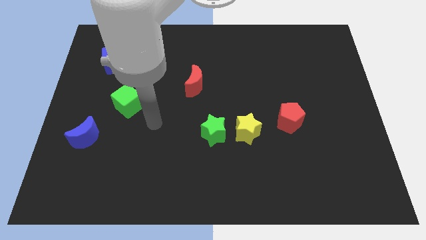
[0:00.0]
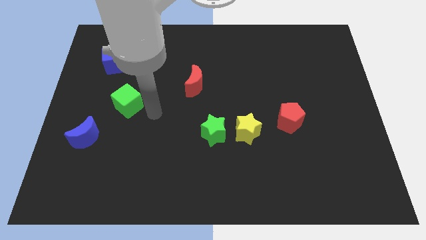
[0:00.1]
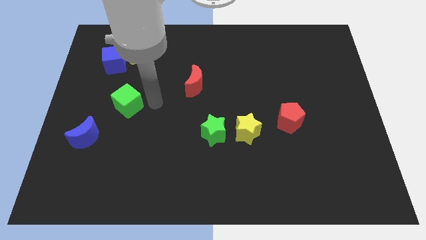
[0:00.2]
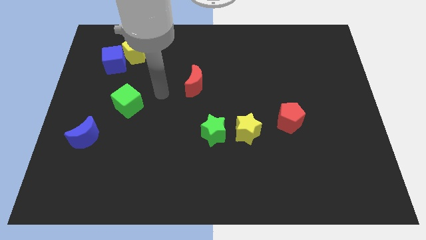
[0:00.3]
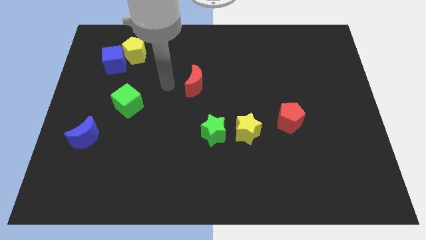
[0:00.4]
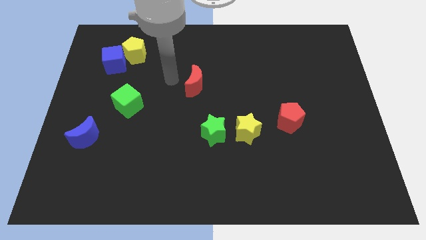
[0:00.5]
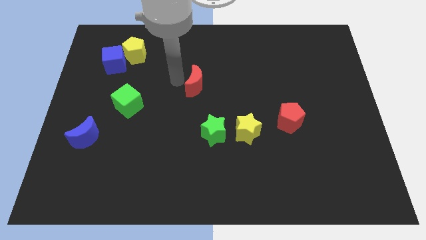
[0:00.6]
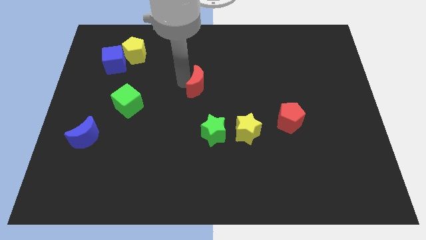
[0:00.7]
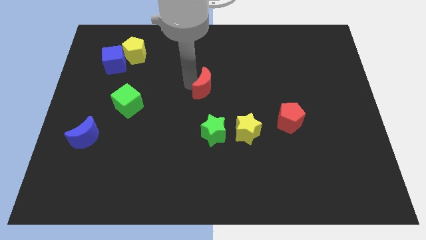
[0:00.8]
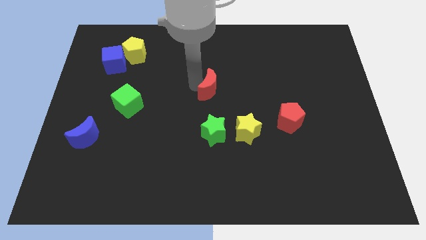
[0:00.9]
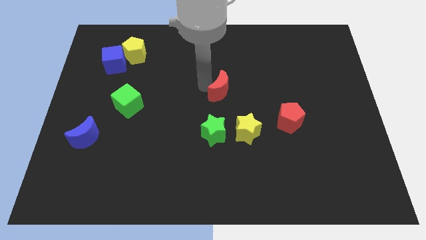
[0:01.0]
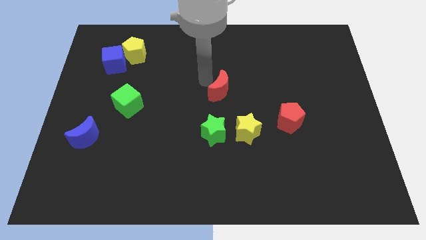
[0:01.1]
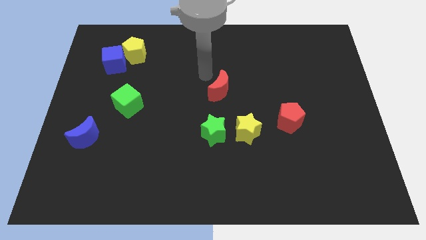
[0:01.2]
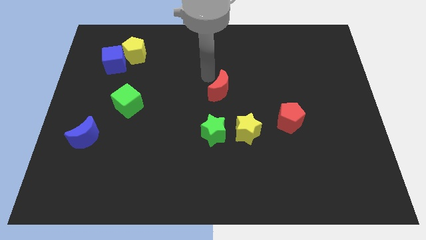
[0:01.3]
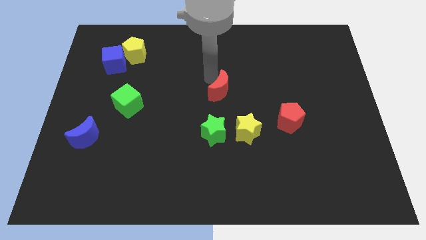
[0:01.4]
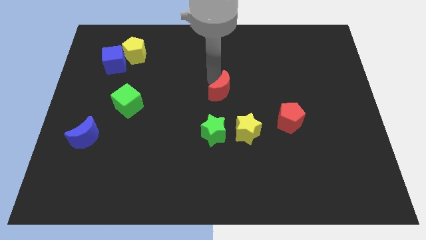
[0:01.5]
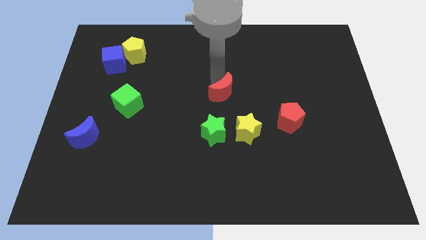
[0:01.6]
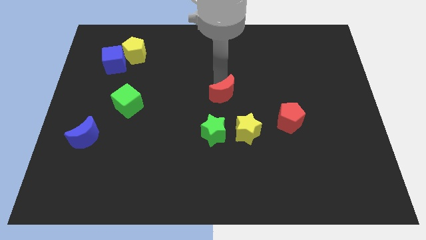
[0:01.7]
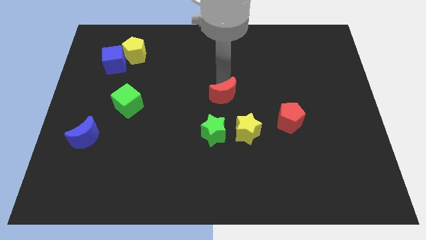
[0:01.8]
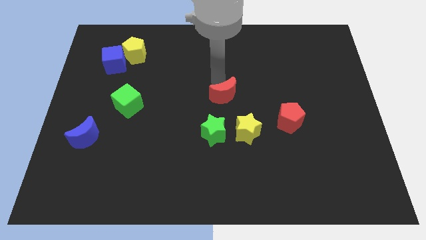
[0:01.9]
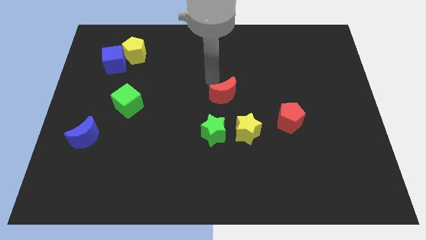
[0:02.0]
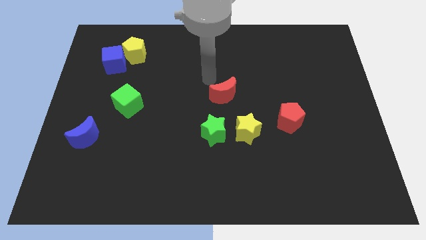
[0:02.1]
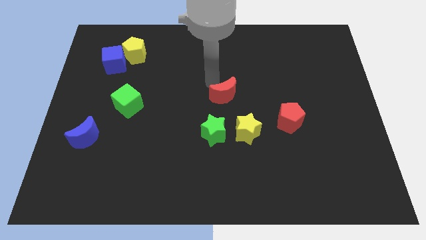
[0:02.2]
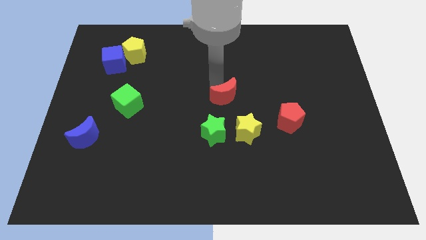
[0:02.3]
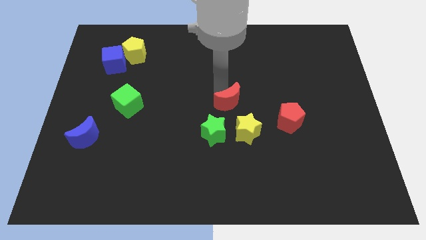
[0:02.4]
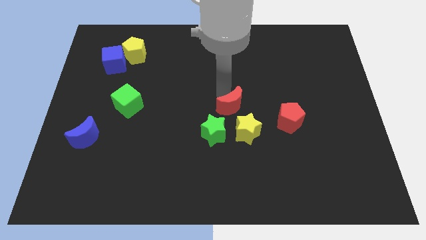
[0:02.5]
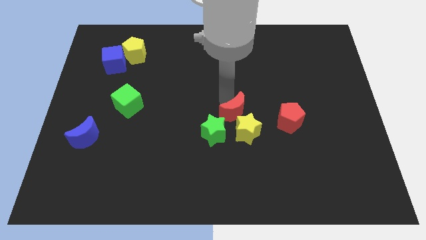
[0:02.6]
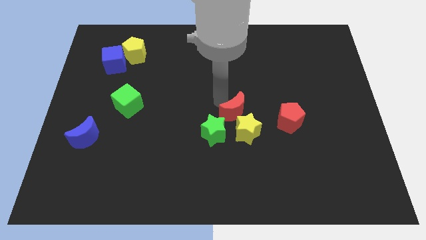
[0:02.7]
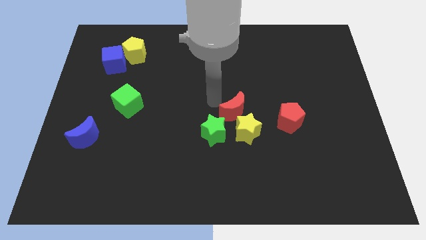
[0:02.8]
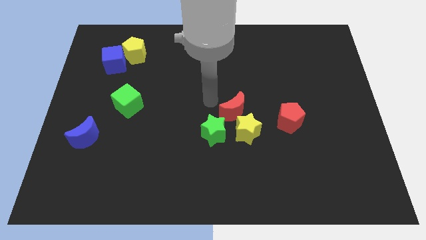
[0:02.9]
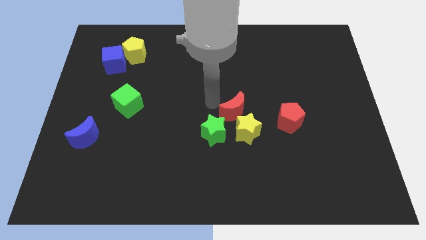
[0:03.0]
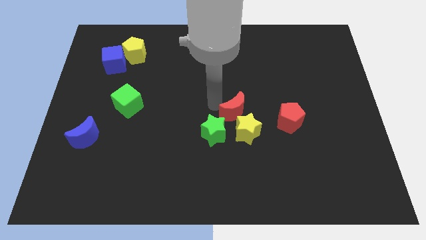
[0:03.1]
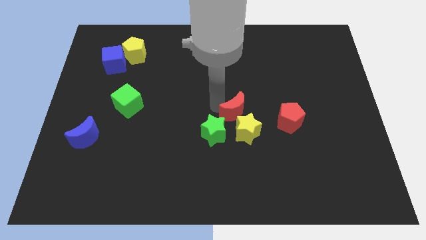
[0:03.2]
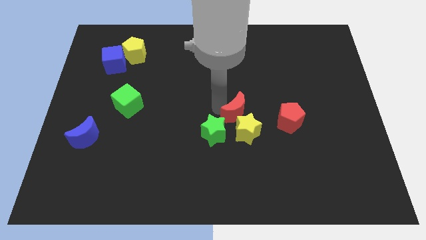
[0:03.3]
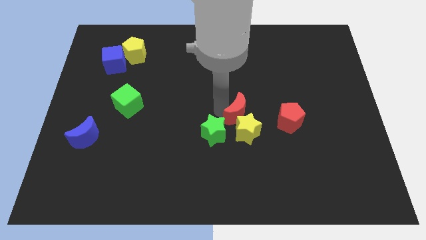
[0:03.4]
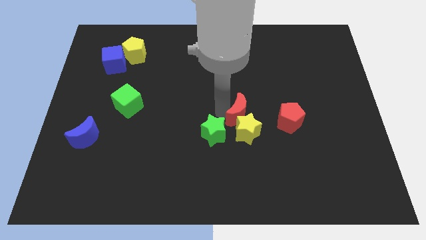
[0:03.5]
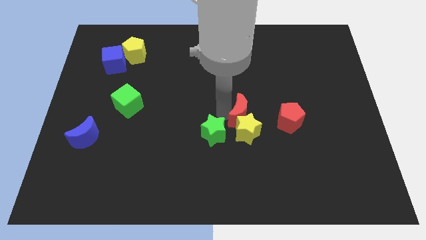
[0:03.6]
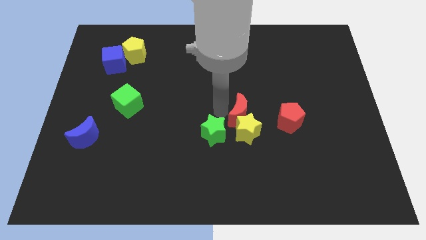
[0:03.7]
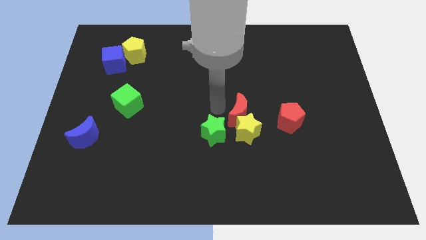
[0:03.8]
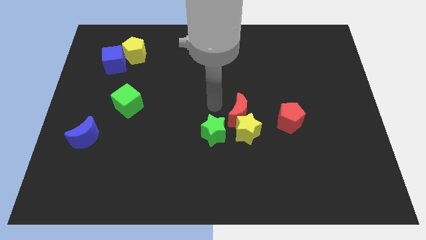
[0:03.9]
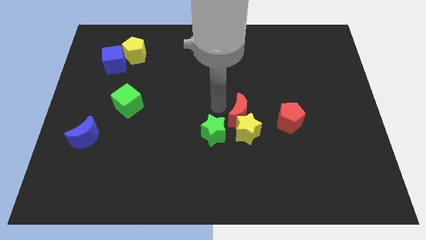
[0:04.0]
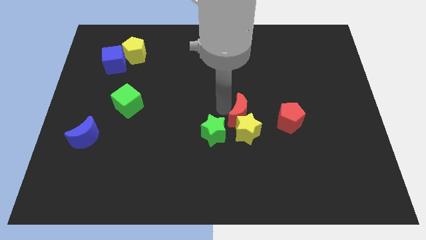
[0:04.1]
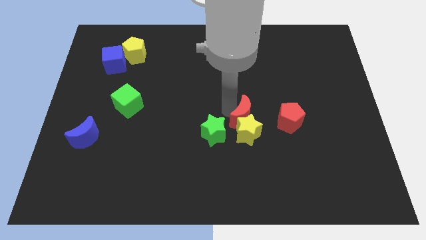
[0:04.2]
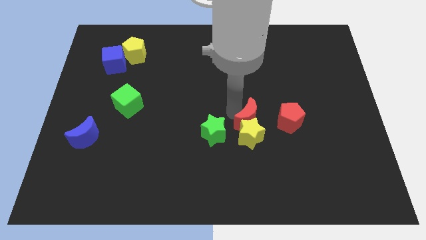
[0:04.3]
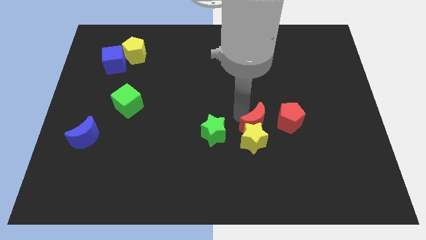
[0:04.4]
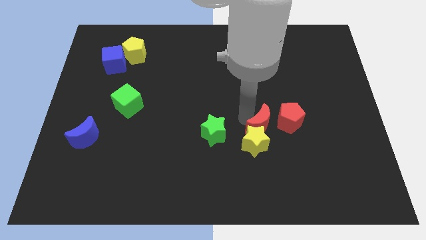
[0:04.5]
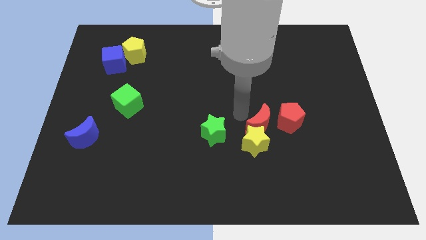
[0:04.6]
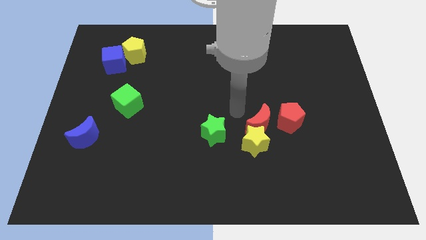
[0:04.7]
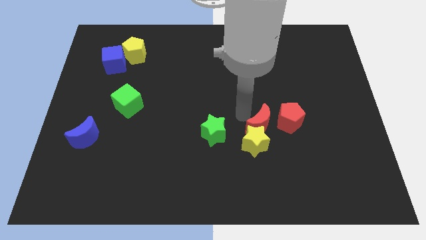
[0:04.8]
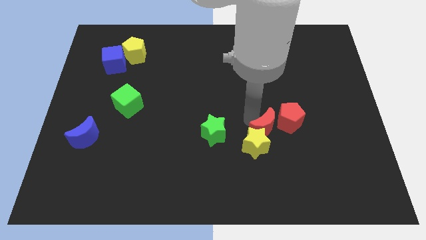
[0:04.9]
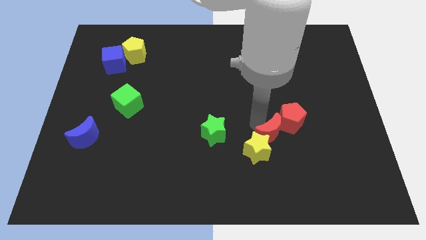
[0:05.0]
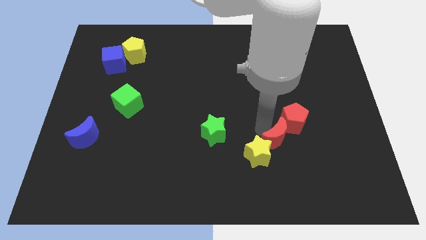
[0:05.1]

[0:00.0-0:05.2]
move the red moon below the red pentagon

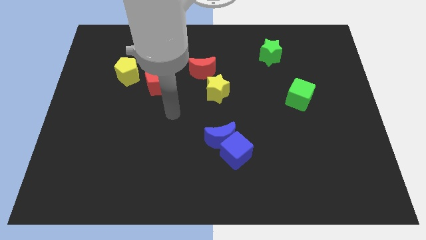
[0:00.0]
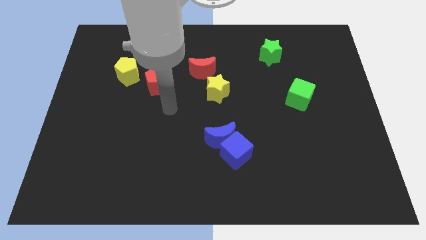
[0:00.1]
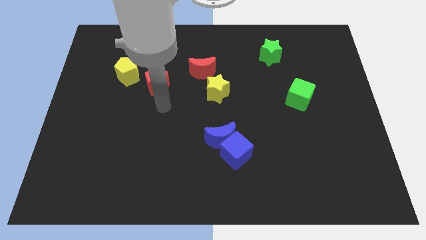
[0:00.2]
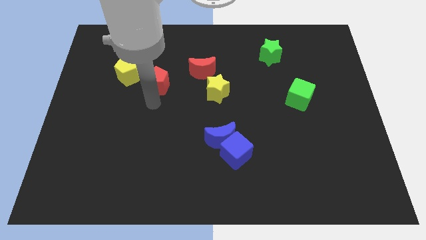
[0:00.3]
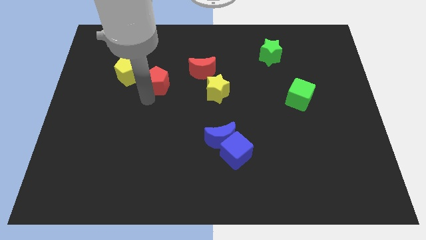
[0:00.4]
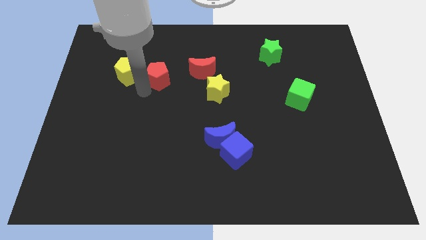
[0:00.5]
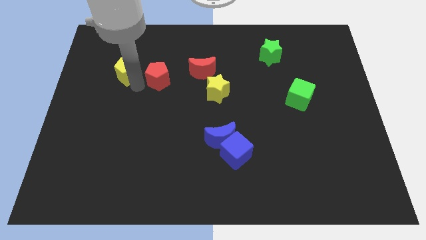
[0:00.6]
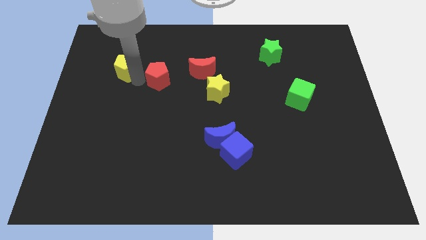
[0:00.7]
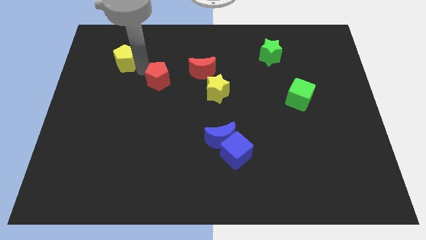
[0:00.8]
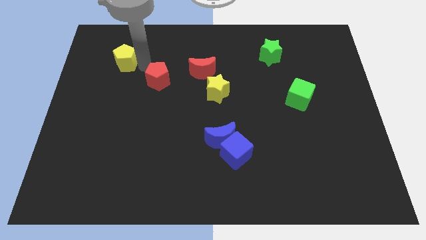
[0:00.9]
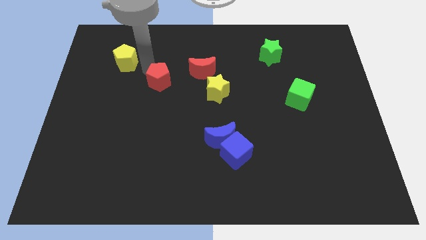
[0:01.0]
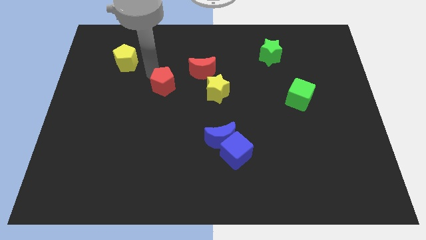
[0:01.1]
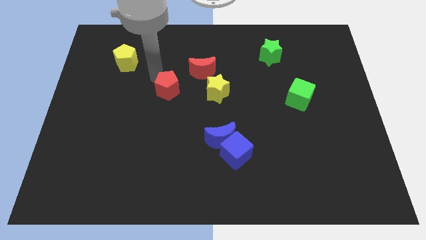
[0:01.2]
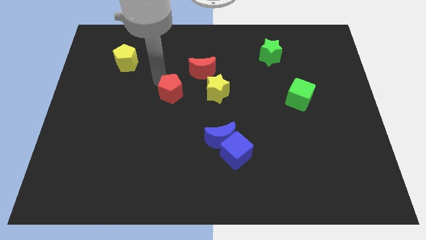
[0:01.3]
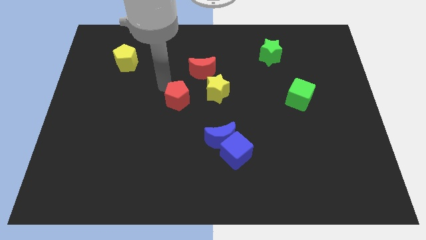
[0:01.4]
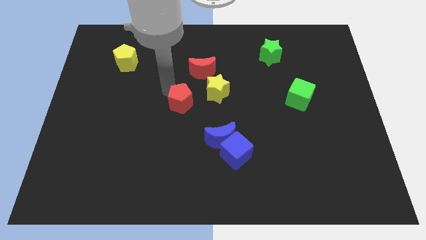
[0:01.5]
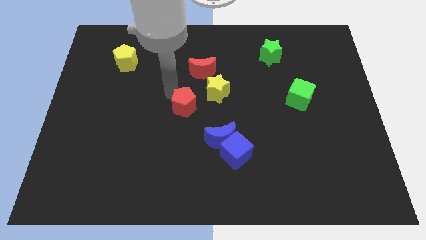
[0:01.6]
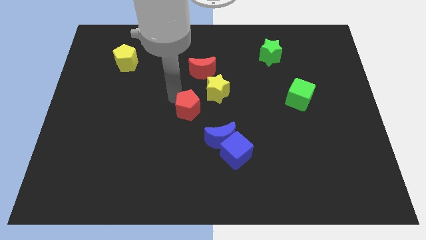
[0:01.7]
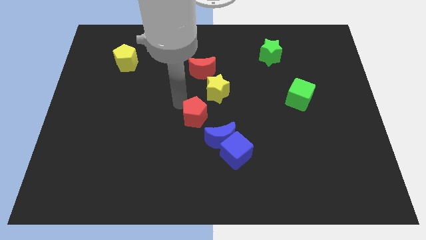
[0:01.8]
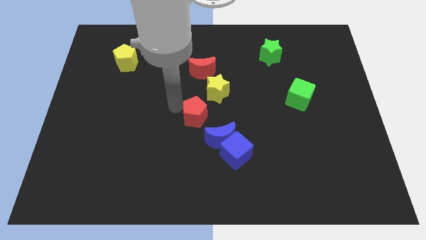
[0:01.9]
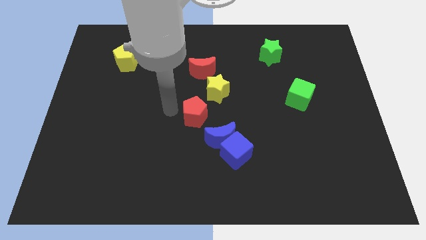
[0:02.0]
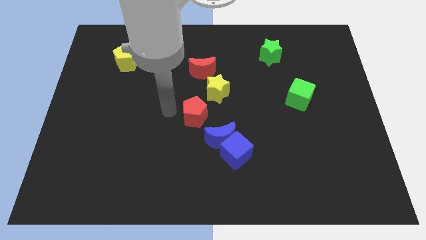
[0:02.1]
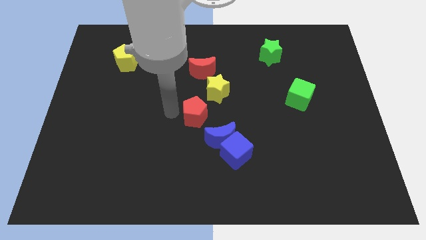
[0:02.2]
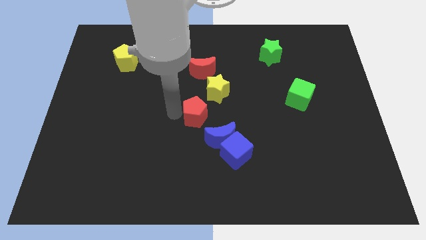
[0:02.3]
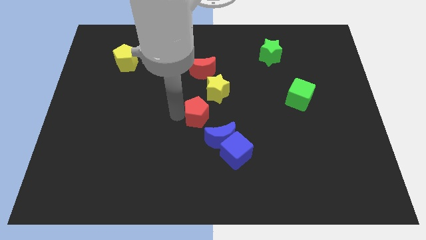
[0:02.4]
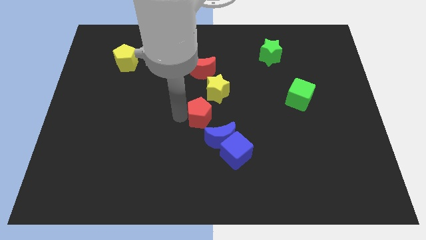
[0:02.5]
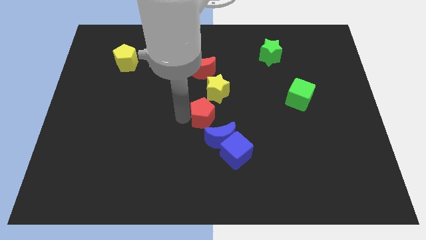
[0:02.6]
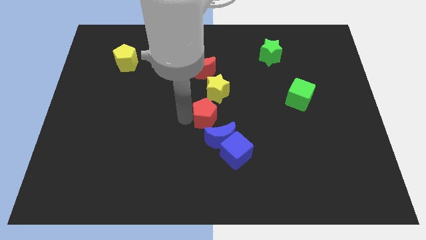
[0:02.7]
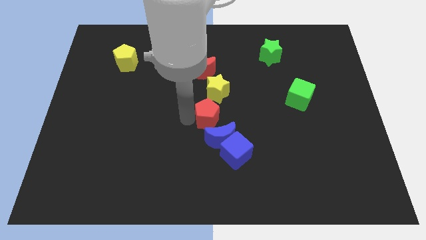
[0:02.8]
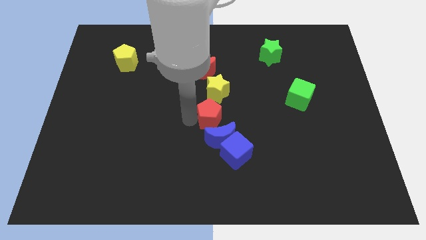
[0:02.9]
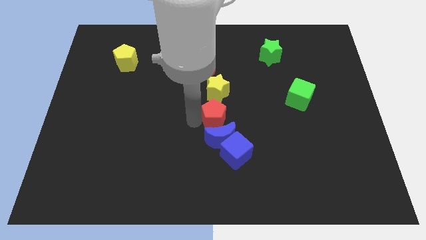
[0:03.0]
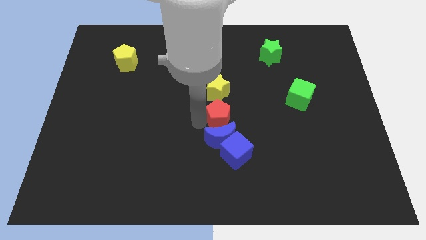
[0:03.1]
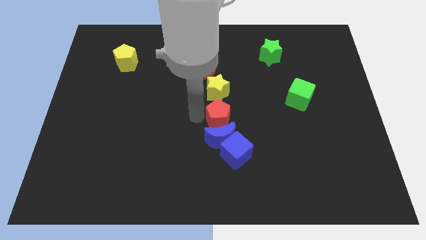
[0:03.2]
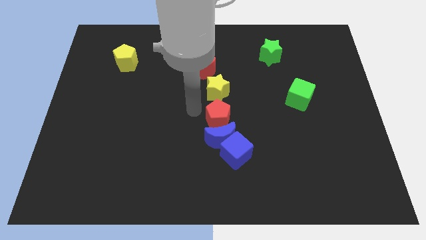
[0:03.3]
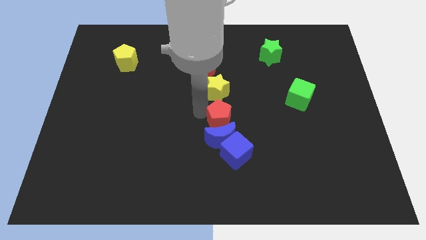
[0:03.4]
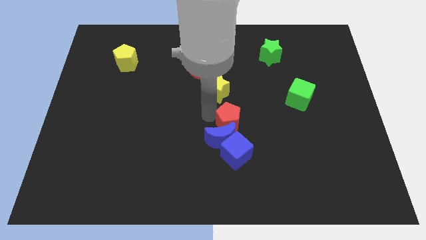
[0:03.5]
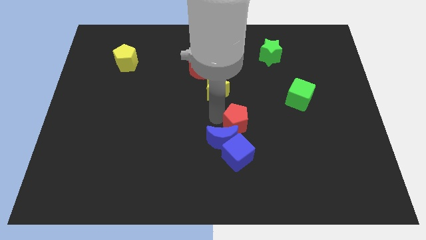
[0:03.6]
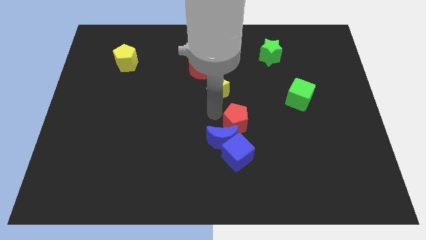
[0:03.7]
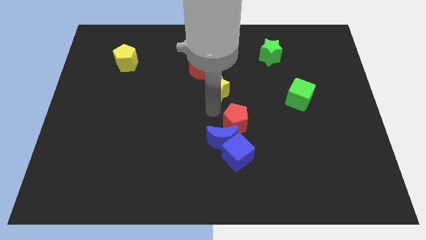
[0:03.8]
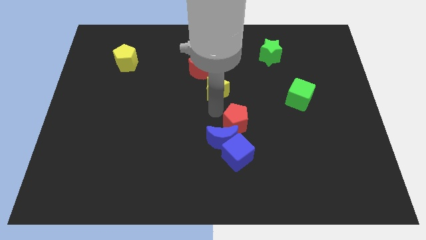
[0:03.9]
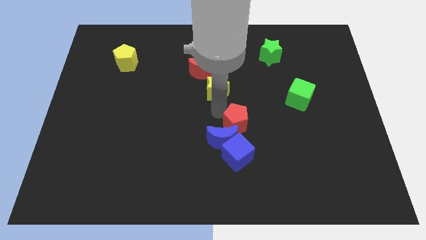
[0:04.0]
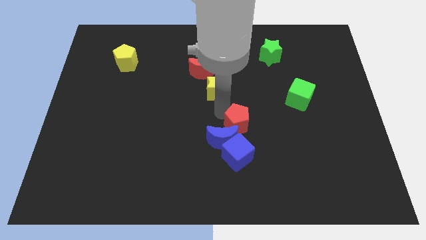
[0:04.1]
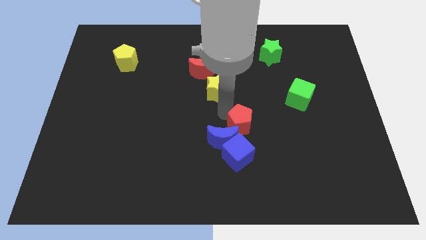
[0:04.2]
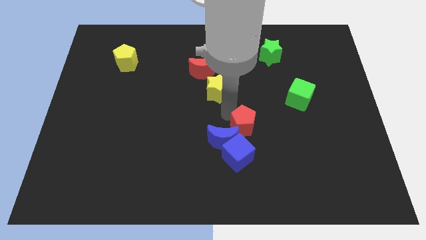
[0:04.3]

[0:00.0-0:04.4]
move the red pentagon diagonally up and to the right of the blue cube
